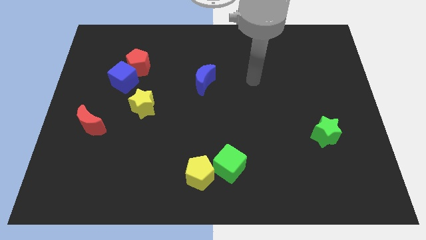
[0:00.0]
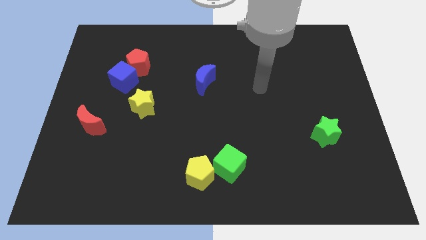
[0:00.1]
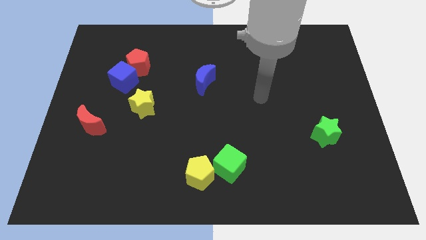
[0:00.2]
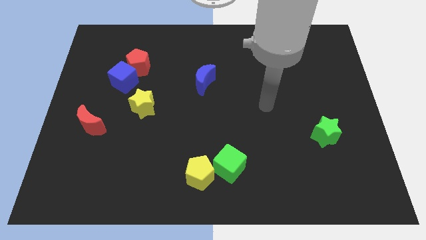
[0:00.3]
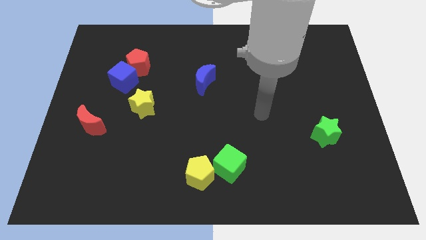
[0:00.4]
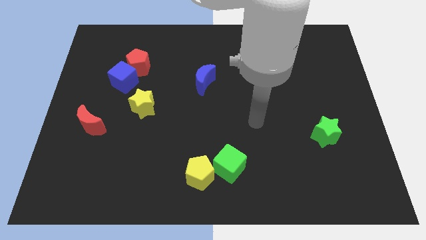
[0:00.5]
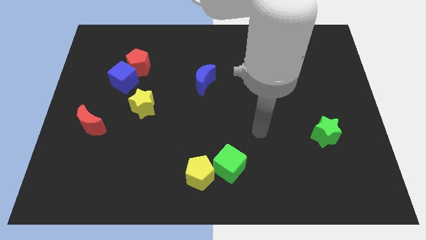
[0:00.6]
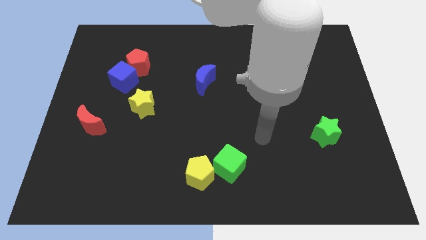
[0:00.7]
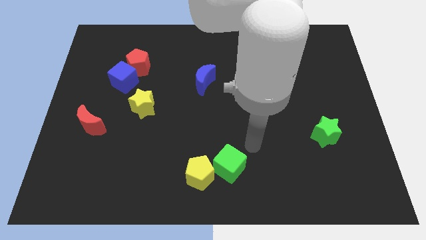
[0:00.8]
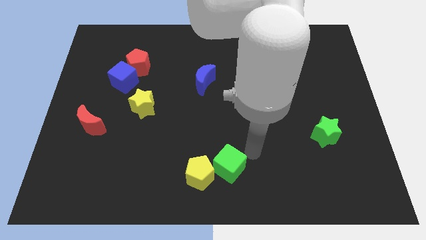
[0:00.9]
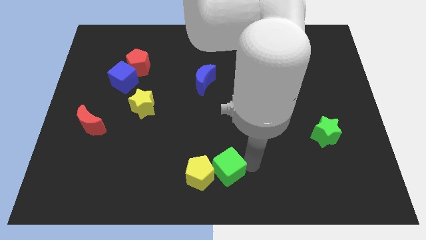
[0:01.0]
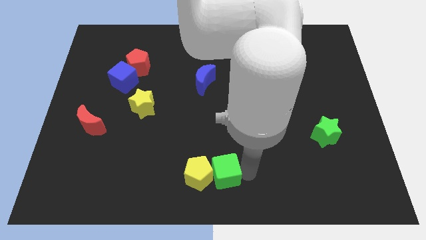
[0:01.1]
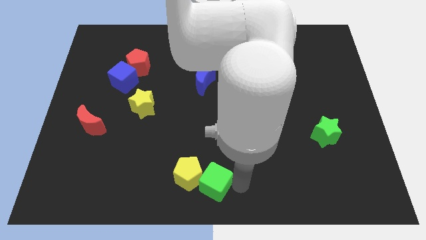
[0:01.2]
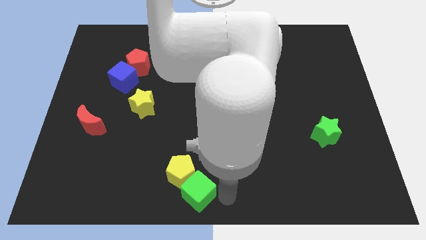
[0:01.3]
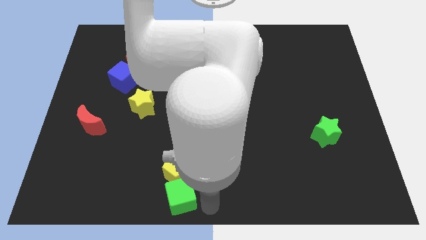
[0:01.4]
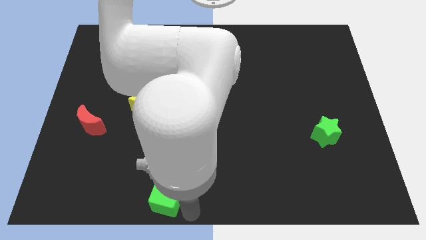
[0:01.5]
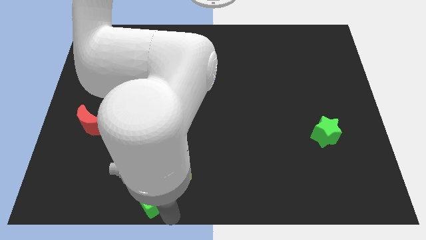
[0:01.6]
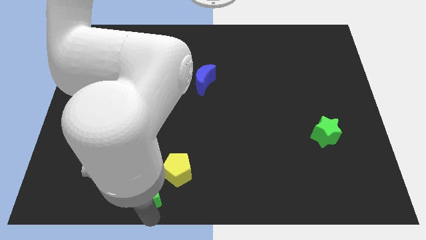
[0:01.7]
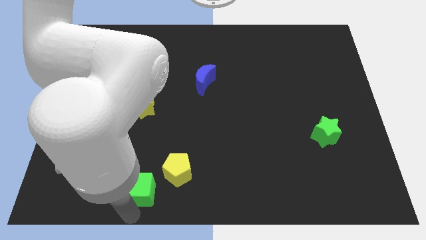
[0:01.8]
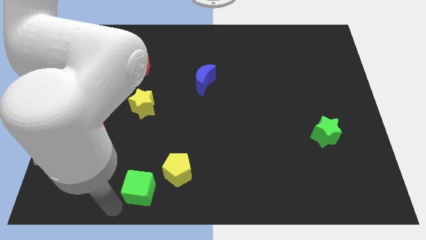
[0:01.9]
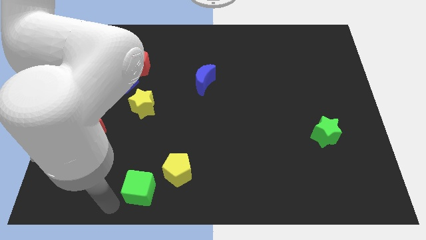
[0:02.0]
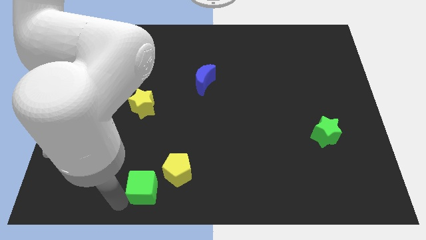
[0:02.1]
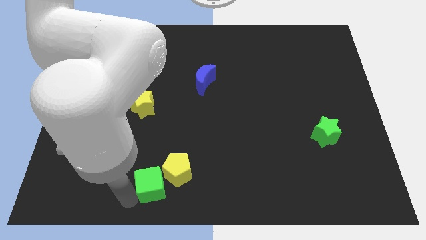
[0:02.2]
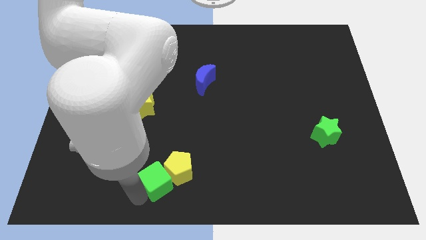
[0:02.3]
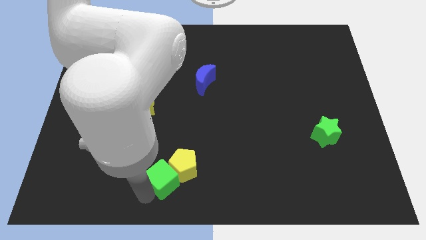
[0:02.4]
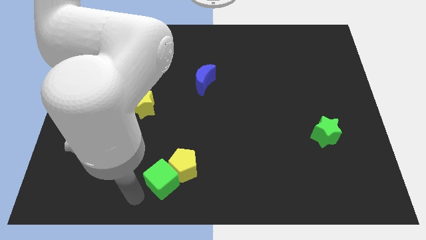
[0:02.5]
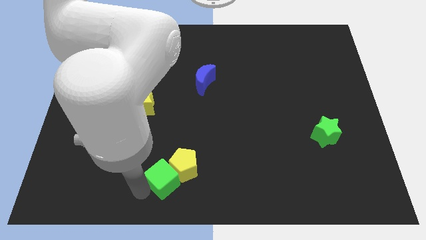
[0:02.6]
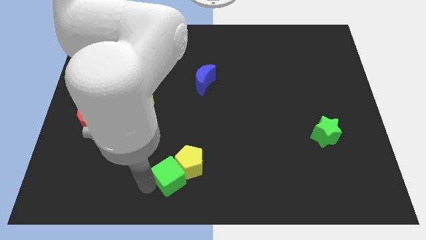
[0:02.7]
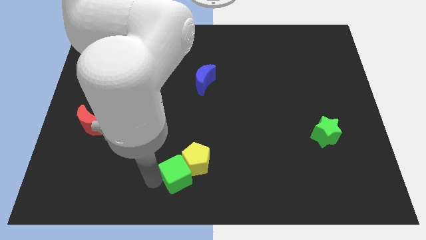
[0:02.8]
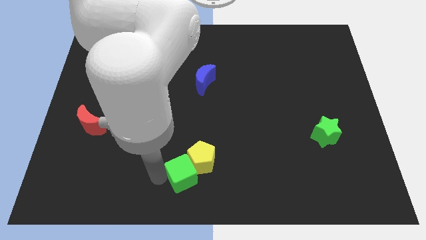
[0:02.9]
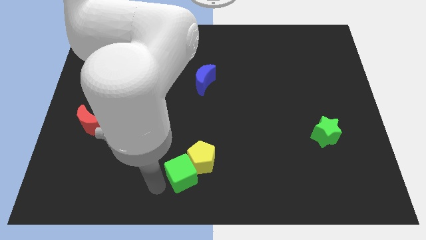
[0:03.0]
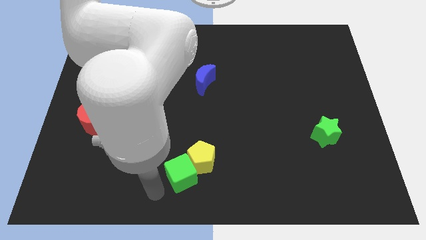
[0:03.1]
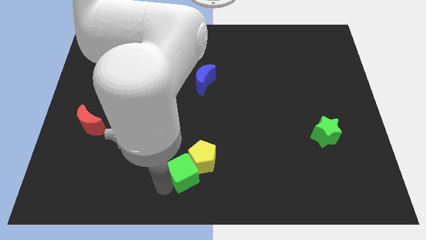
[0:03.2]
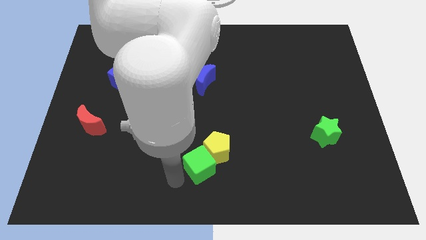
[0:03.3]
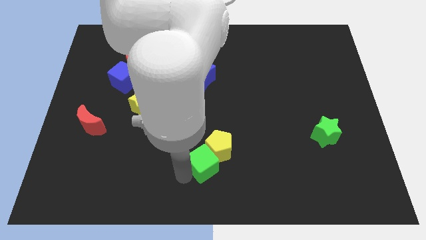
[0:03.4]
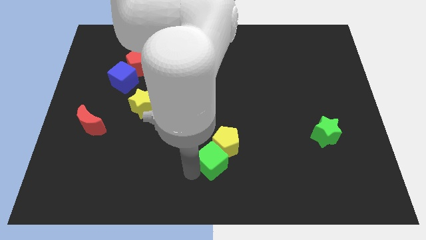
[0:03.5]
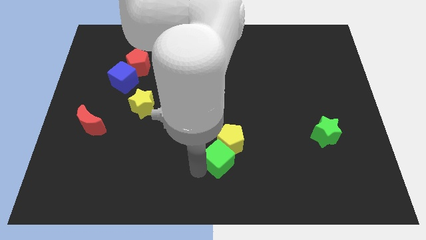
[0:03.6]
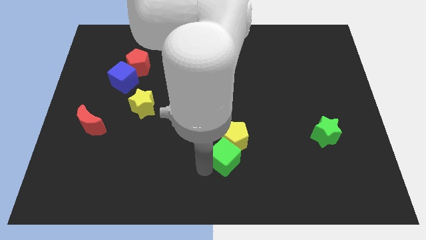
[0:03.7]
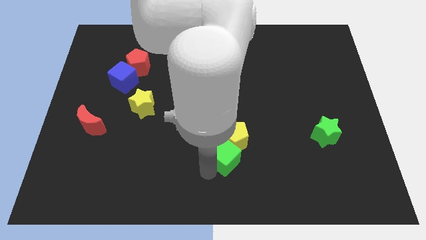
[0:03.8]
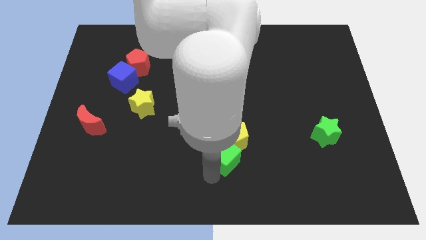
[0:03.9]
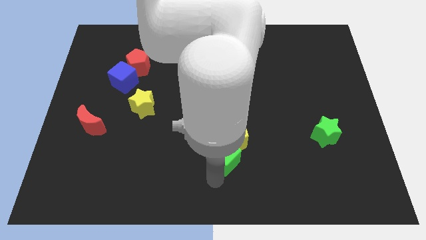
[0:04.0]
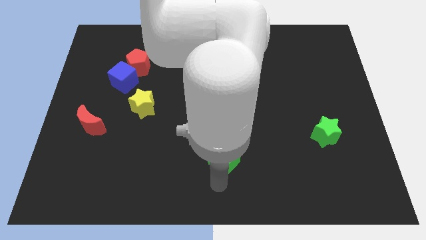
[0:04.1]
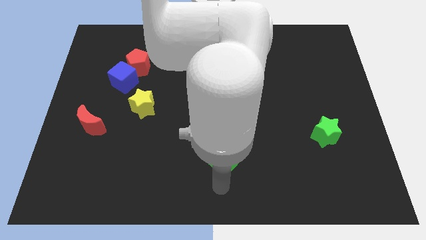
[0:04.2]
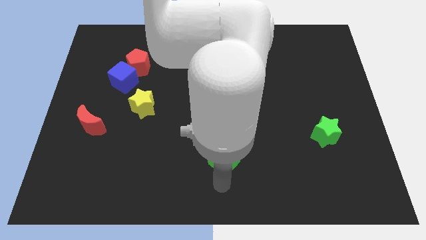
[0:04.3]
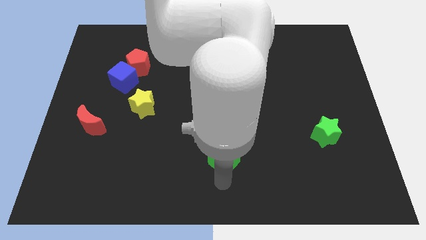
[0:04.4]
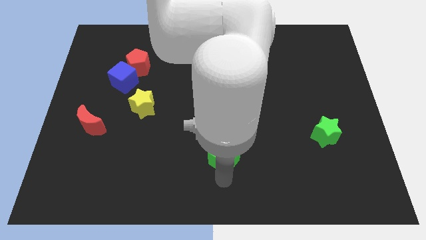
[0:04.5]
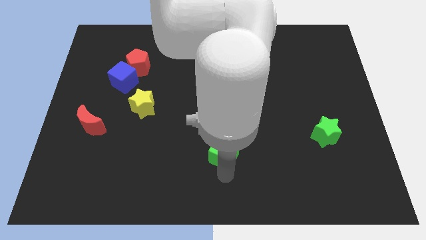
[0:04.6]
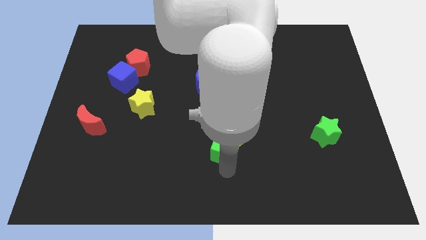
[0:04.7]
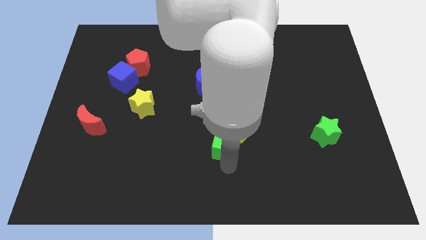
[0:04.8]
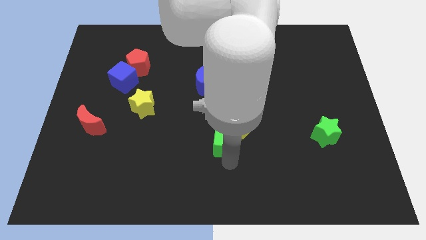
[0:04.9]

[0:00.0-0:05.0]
move the green cube to the middle

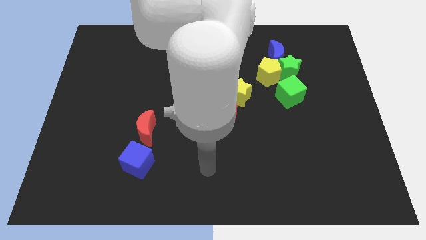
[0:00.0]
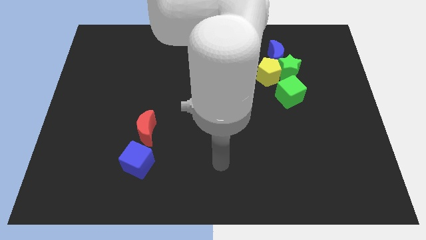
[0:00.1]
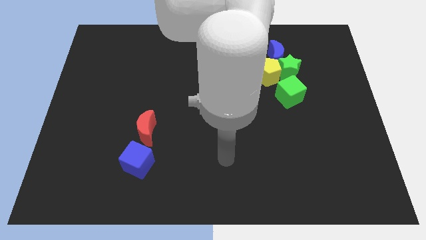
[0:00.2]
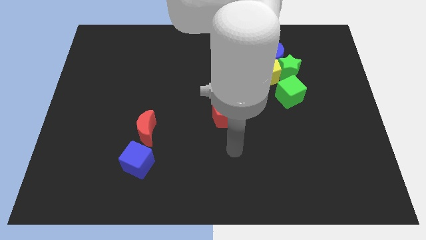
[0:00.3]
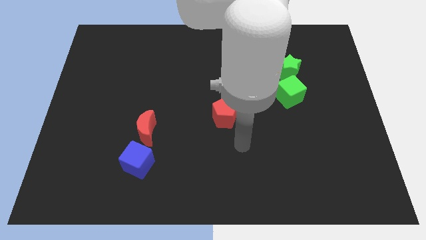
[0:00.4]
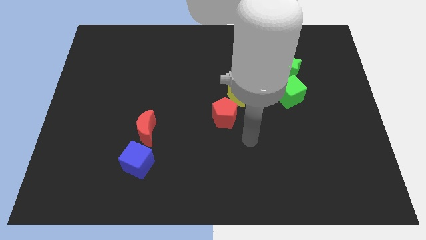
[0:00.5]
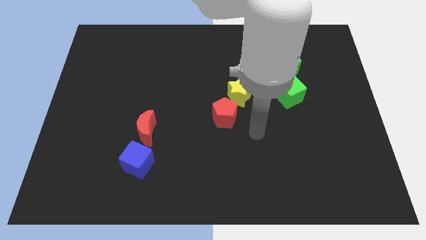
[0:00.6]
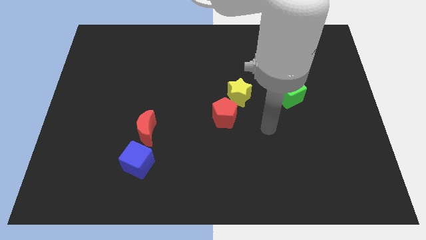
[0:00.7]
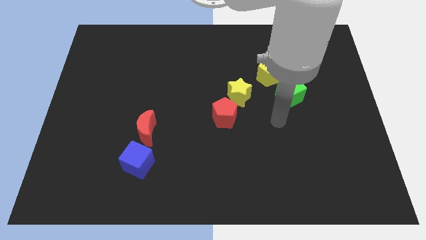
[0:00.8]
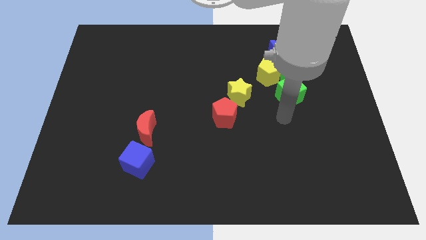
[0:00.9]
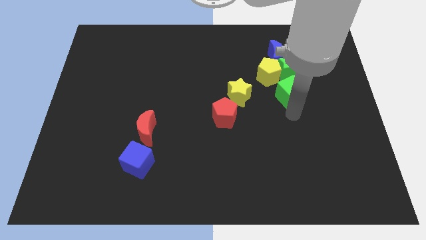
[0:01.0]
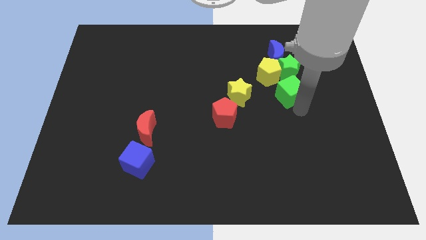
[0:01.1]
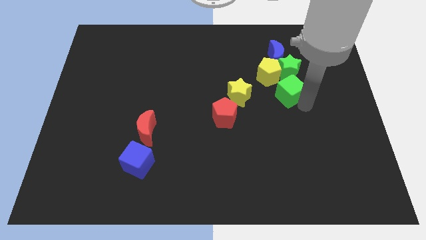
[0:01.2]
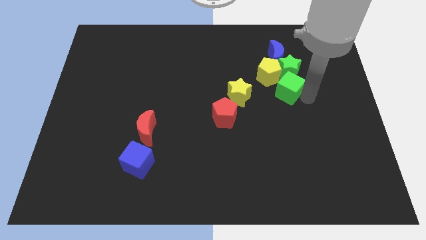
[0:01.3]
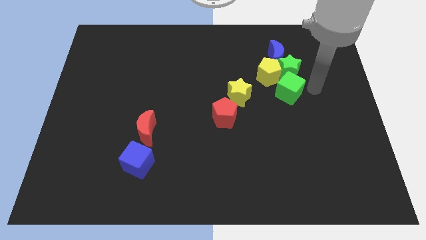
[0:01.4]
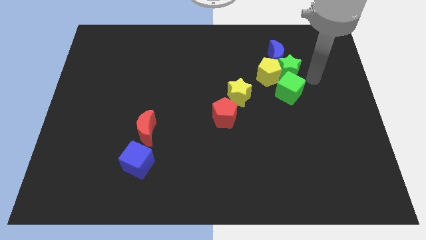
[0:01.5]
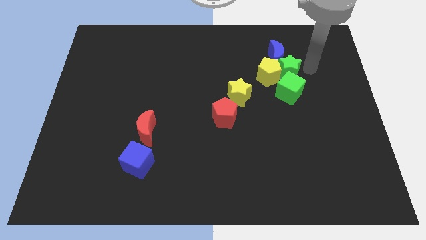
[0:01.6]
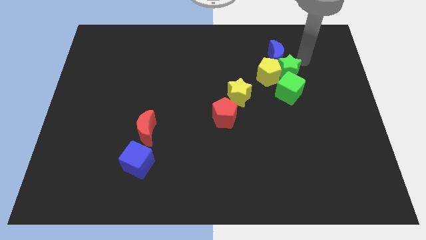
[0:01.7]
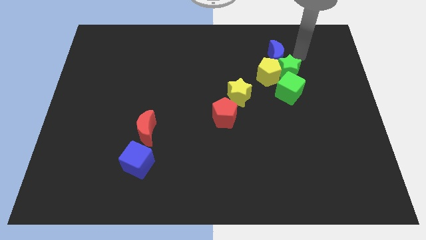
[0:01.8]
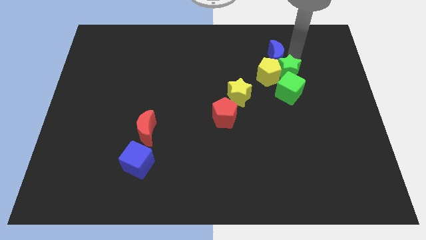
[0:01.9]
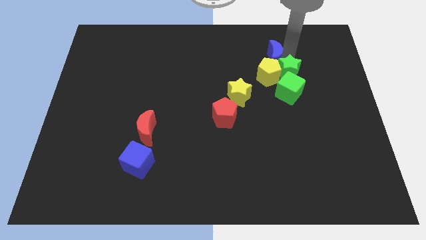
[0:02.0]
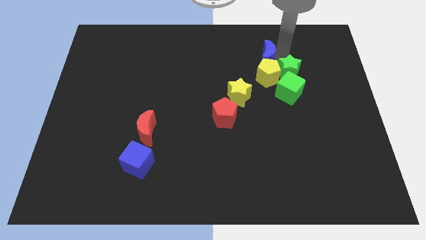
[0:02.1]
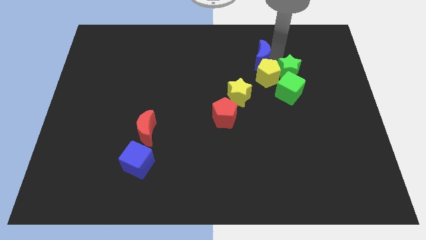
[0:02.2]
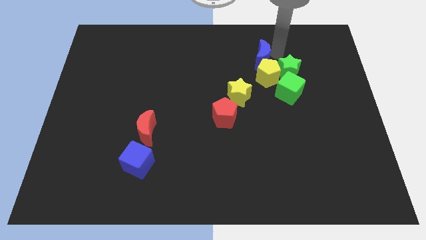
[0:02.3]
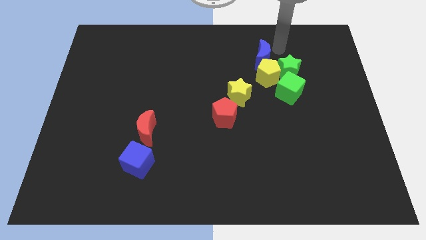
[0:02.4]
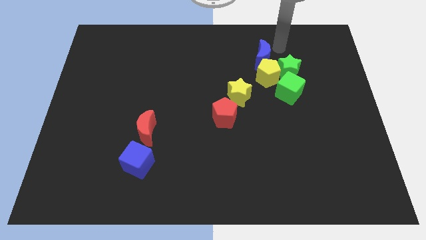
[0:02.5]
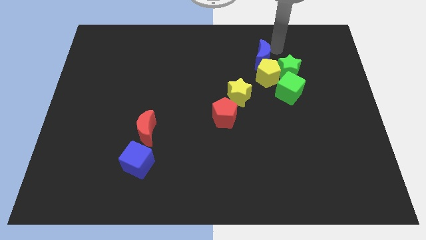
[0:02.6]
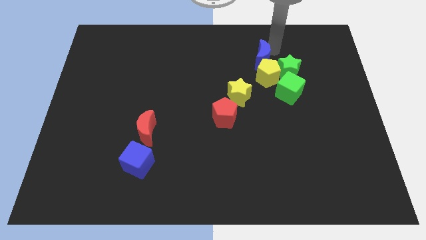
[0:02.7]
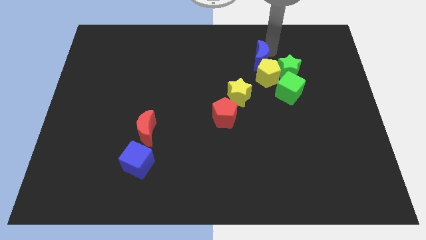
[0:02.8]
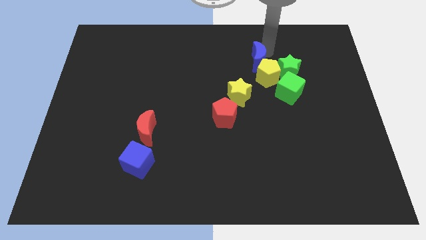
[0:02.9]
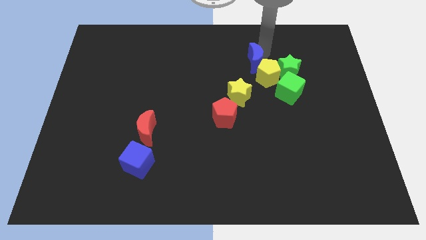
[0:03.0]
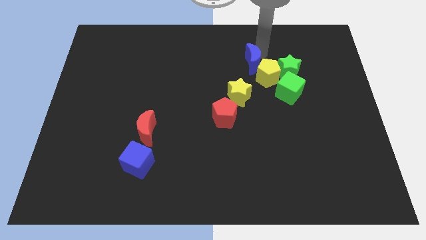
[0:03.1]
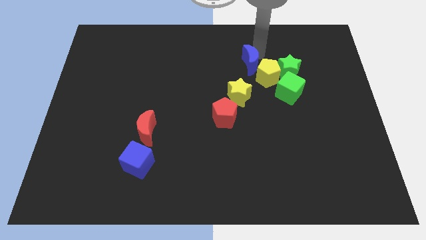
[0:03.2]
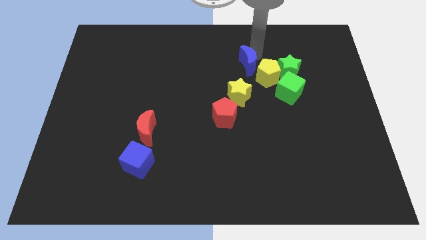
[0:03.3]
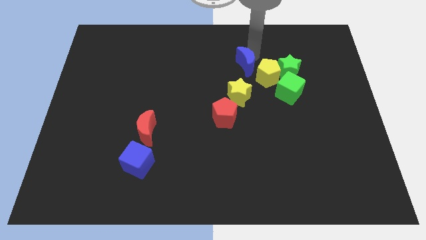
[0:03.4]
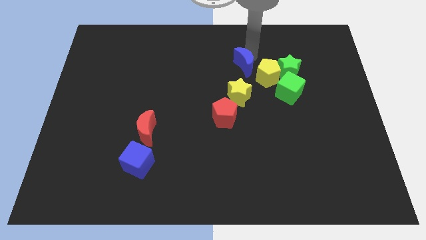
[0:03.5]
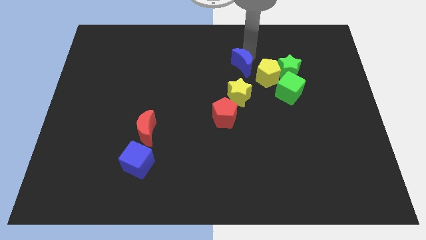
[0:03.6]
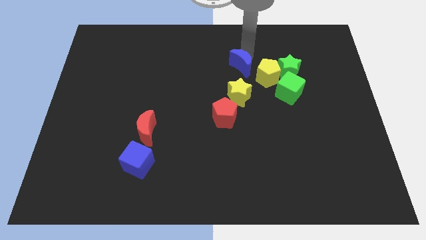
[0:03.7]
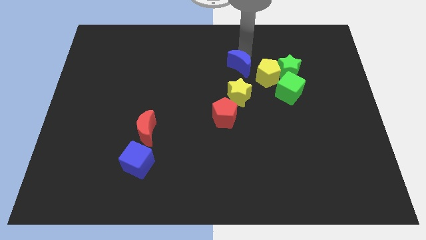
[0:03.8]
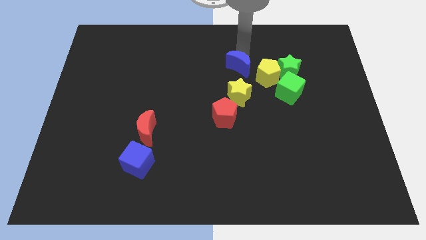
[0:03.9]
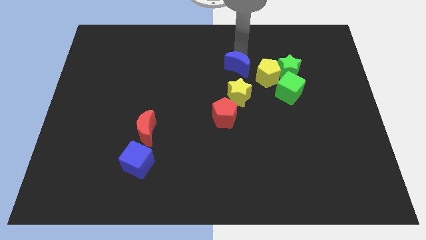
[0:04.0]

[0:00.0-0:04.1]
slide the blue moon to the middle of the board
